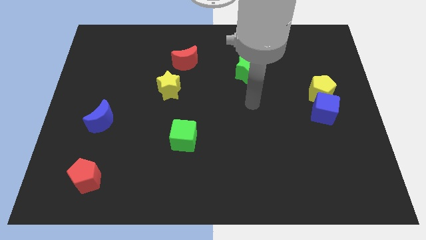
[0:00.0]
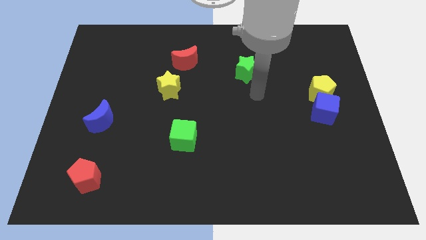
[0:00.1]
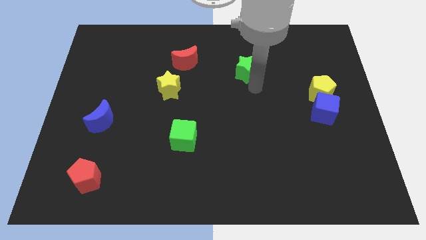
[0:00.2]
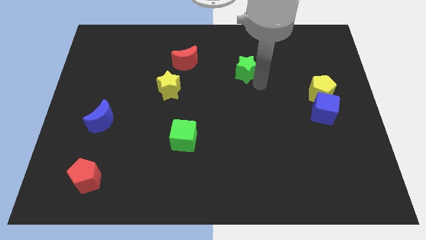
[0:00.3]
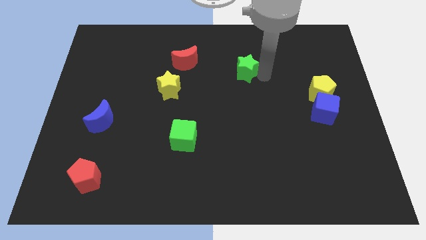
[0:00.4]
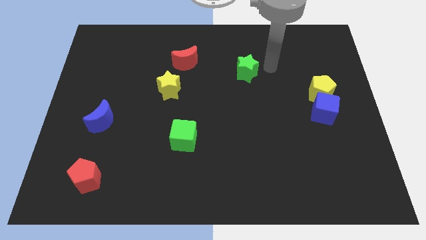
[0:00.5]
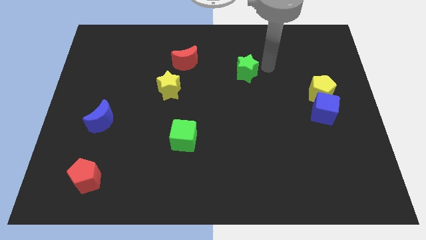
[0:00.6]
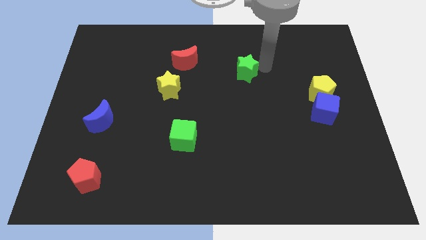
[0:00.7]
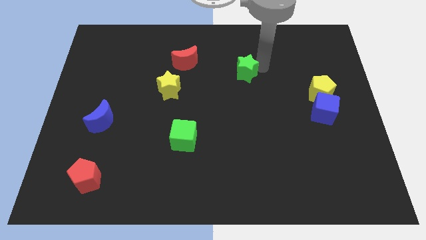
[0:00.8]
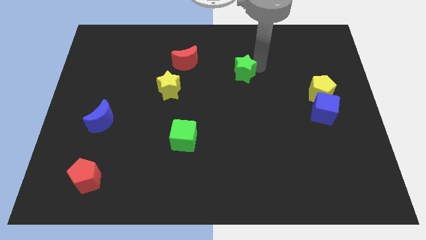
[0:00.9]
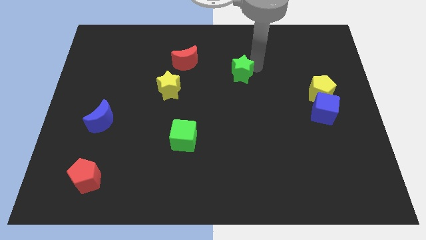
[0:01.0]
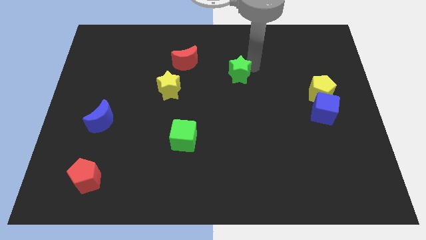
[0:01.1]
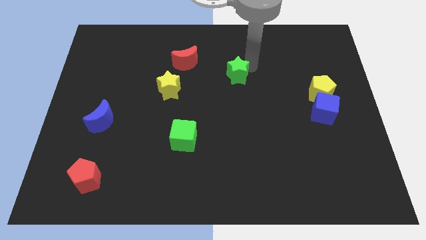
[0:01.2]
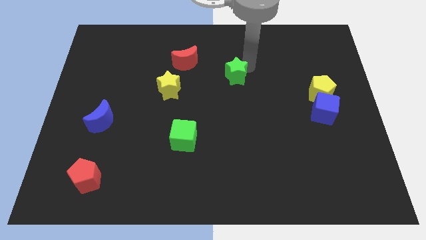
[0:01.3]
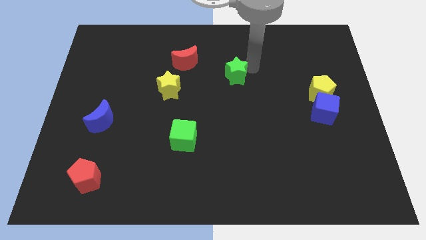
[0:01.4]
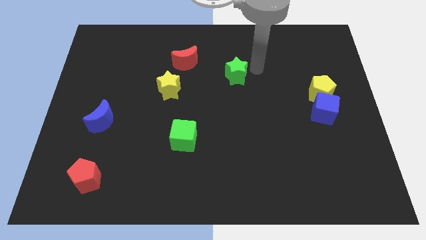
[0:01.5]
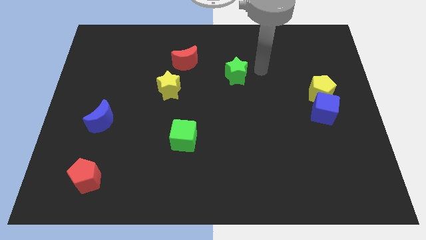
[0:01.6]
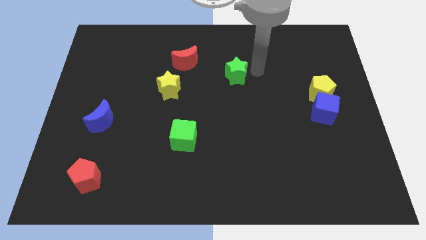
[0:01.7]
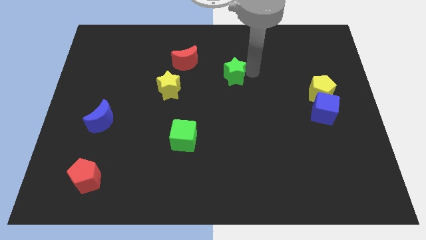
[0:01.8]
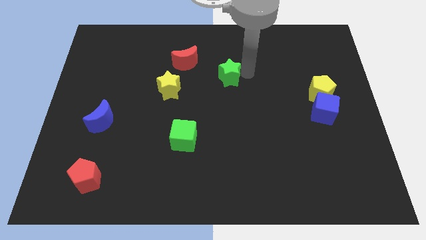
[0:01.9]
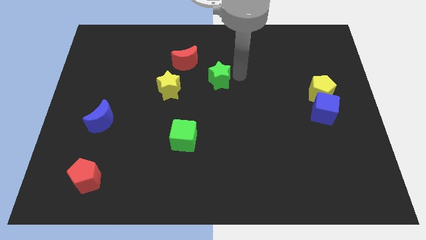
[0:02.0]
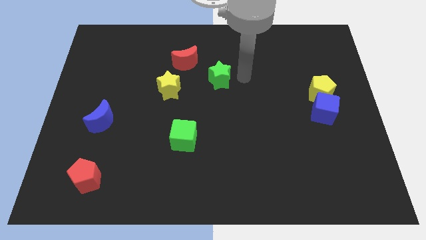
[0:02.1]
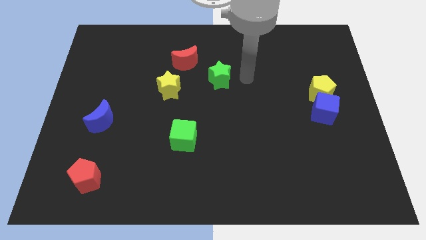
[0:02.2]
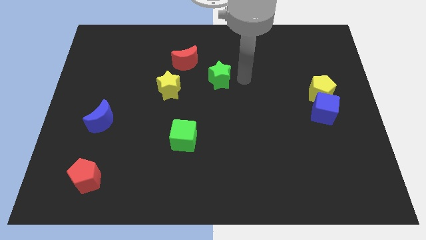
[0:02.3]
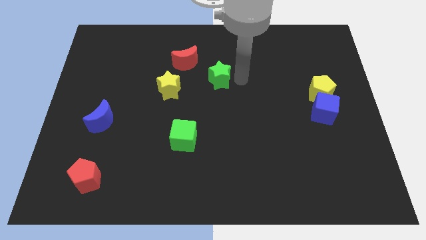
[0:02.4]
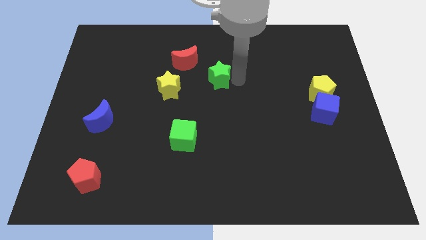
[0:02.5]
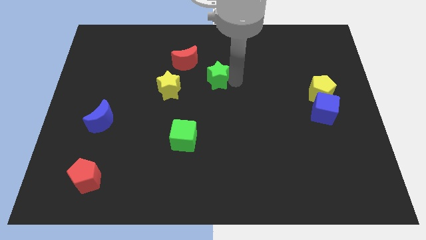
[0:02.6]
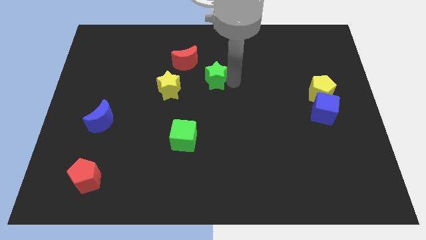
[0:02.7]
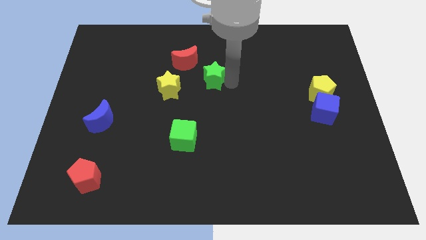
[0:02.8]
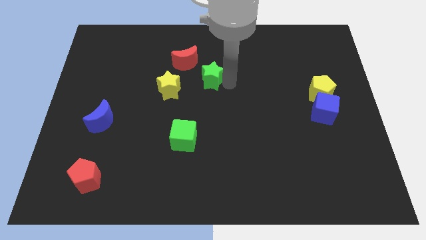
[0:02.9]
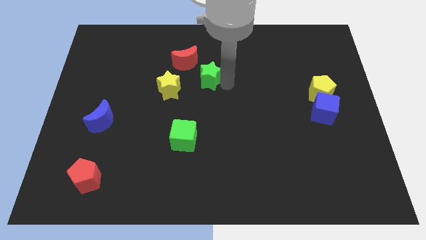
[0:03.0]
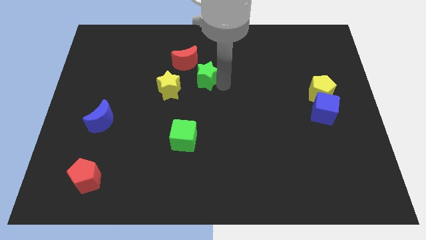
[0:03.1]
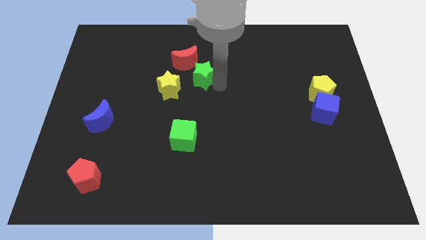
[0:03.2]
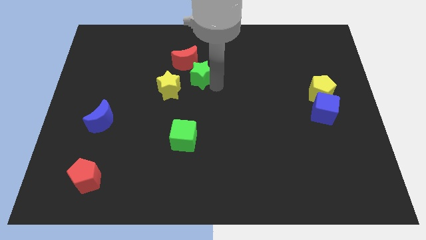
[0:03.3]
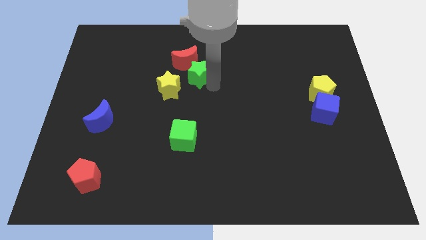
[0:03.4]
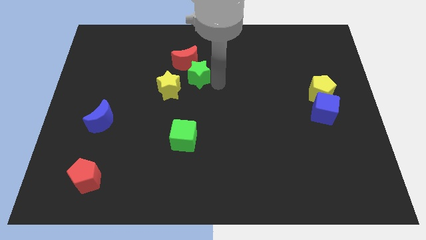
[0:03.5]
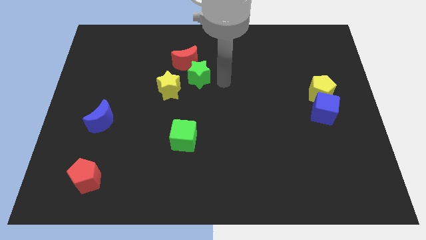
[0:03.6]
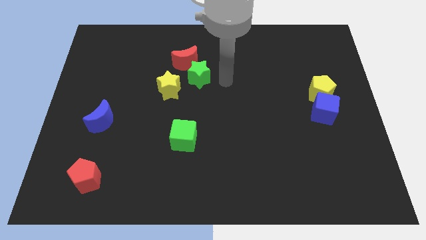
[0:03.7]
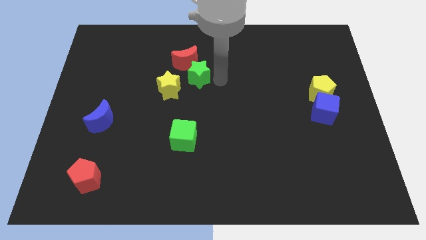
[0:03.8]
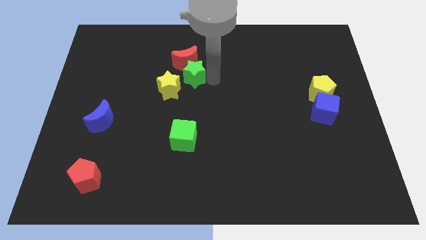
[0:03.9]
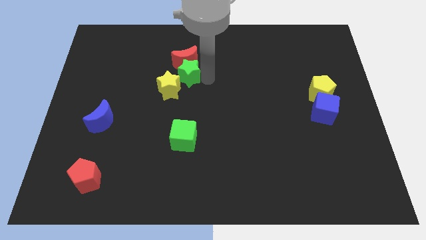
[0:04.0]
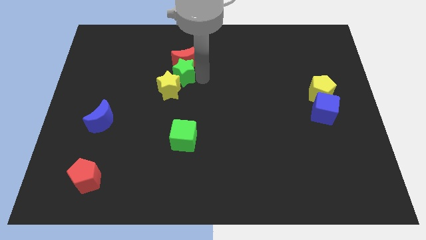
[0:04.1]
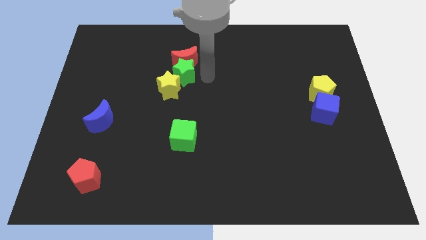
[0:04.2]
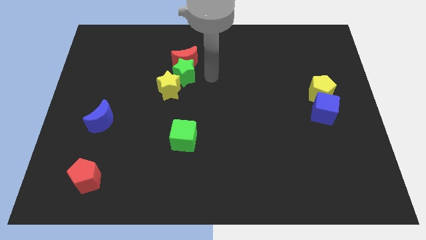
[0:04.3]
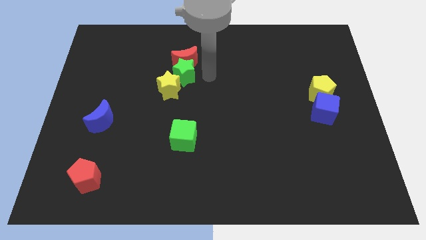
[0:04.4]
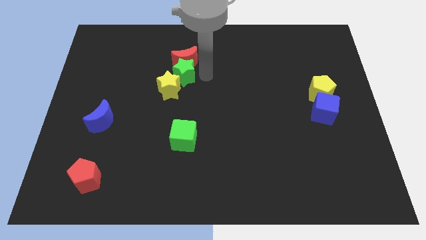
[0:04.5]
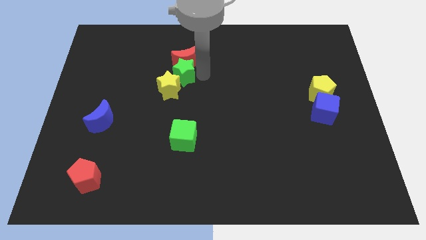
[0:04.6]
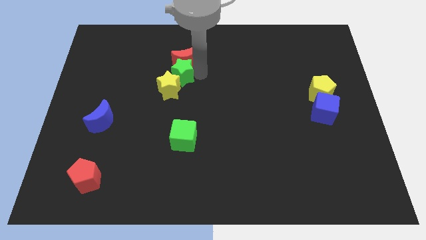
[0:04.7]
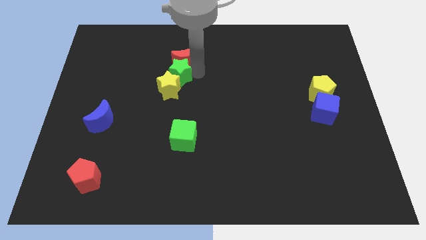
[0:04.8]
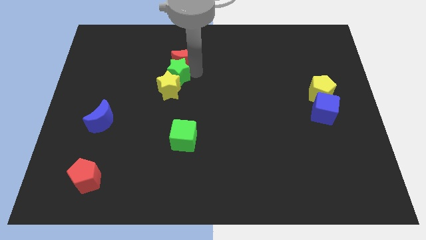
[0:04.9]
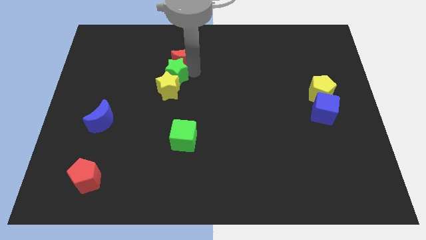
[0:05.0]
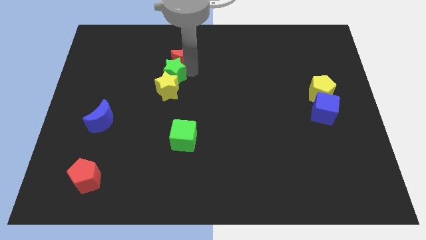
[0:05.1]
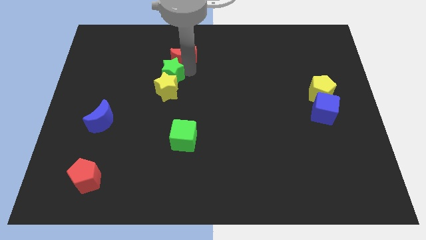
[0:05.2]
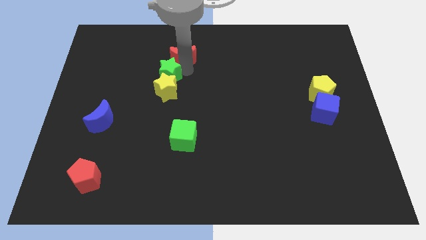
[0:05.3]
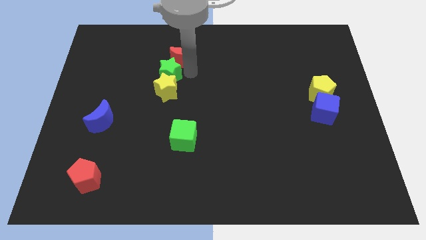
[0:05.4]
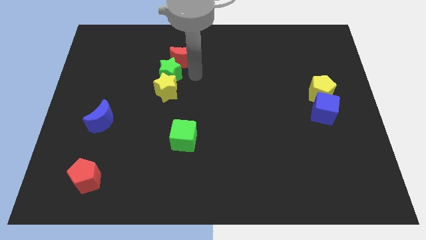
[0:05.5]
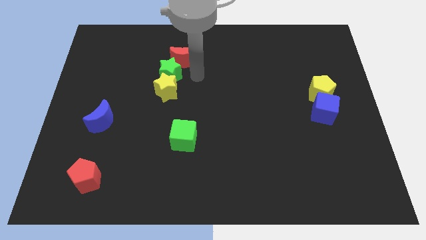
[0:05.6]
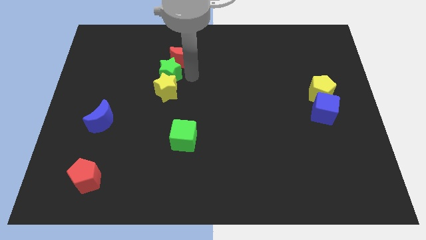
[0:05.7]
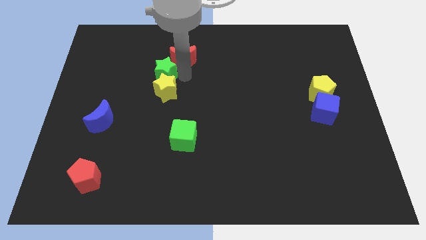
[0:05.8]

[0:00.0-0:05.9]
push the green star to the left

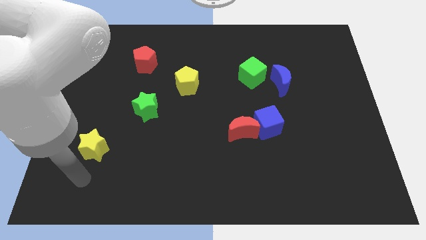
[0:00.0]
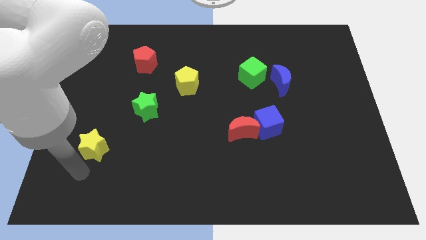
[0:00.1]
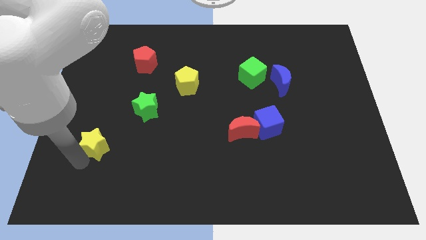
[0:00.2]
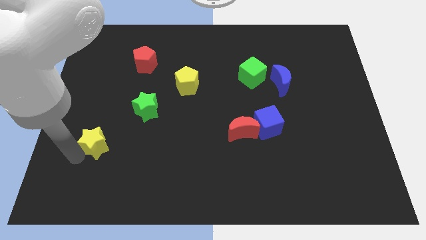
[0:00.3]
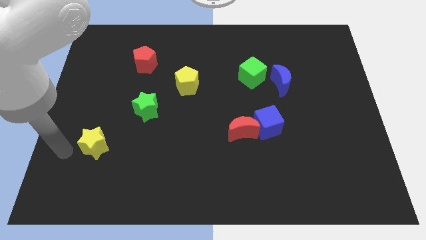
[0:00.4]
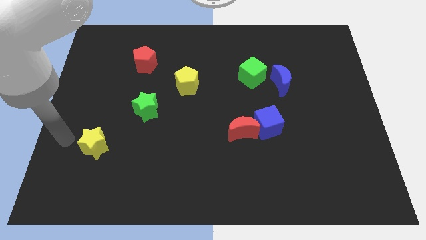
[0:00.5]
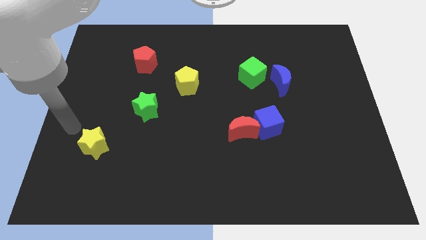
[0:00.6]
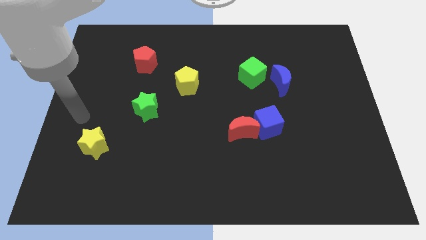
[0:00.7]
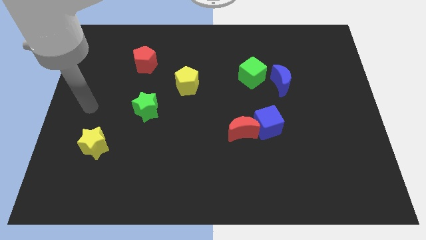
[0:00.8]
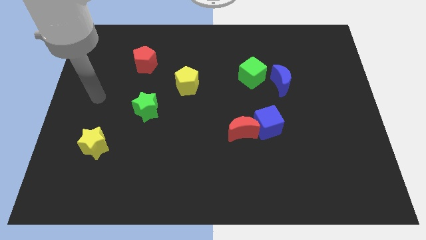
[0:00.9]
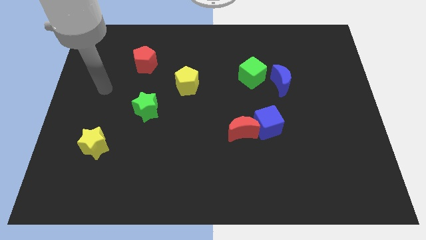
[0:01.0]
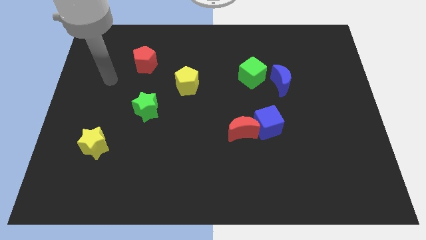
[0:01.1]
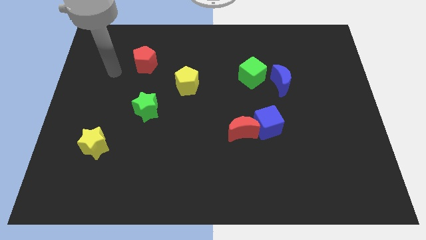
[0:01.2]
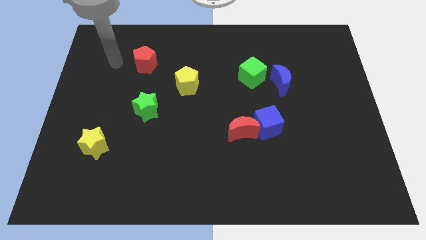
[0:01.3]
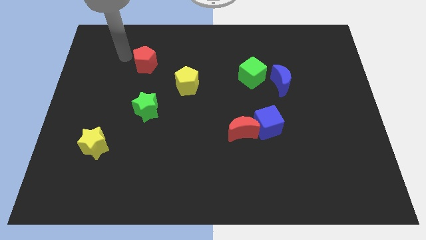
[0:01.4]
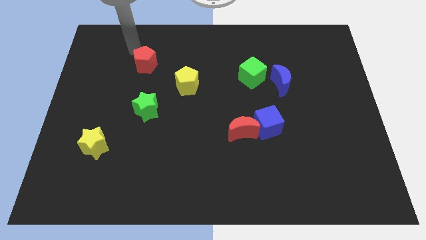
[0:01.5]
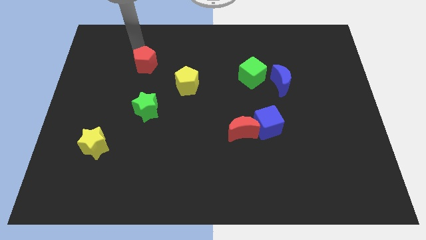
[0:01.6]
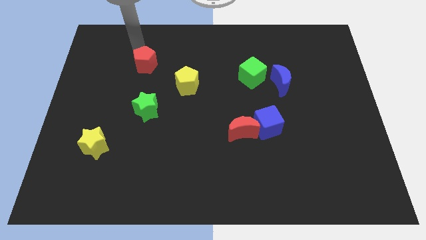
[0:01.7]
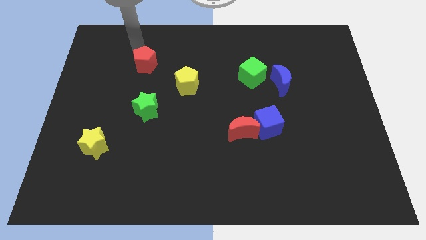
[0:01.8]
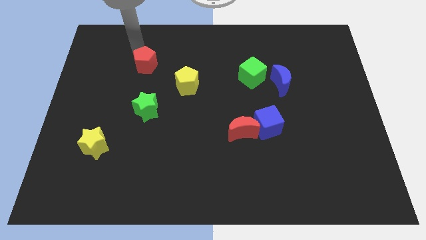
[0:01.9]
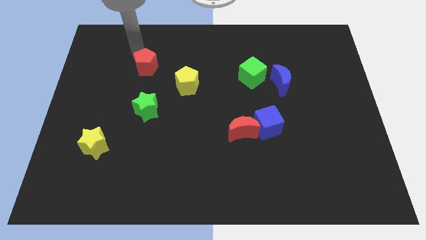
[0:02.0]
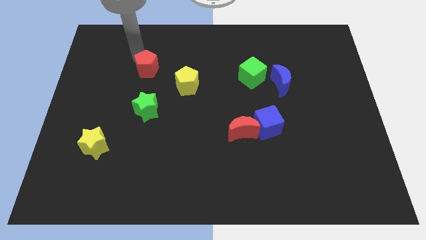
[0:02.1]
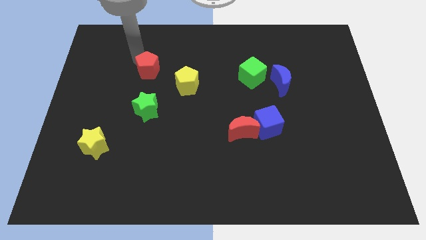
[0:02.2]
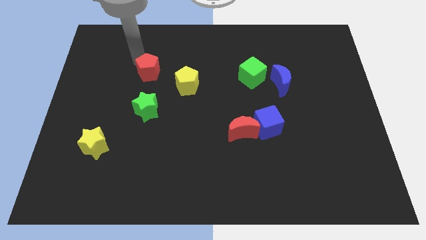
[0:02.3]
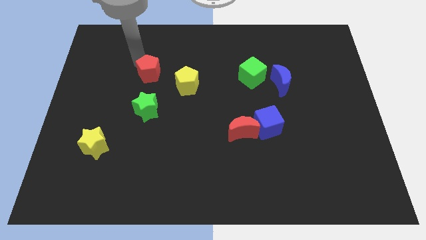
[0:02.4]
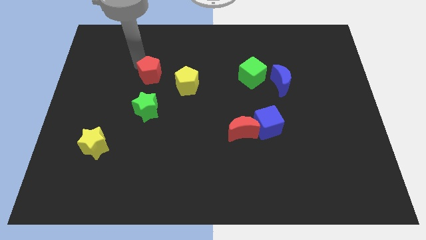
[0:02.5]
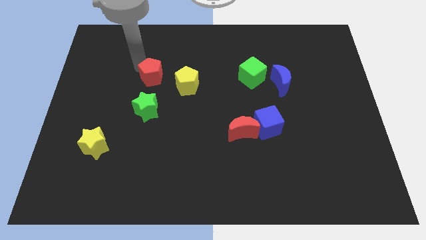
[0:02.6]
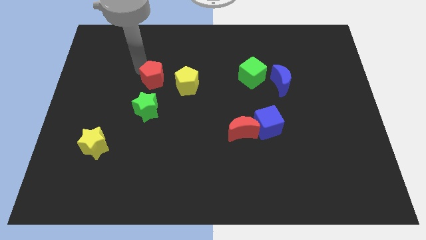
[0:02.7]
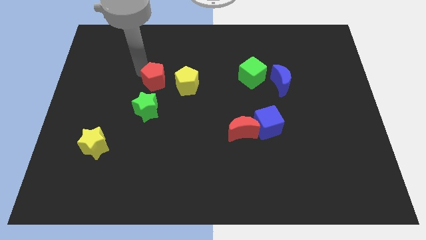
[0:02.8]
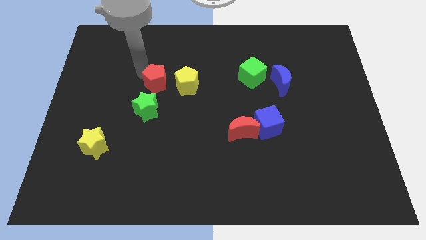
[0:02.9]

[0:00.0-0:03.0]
slide the red pentagon down and then to the right a little bit
